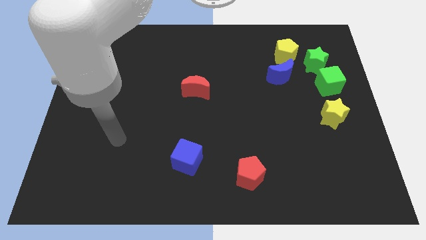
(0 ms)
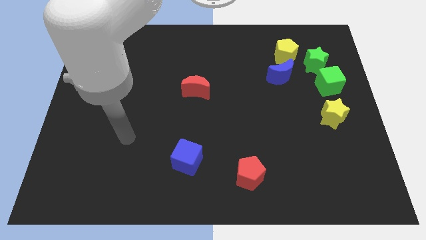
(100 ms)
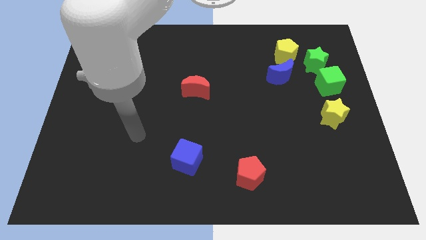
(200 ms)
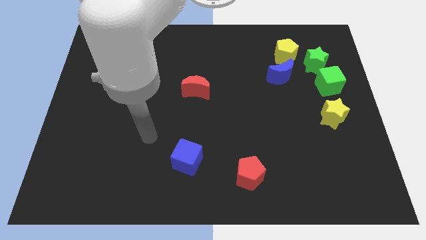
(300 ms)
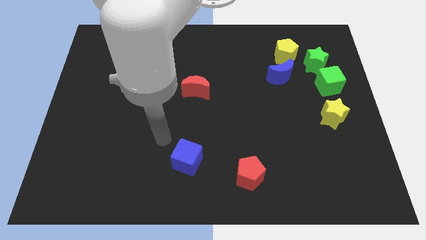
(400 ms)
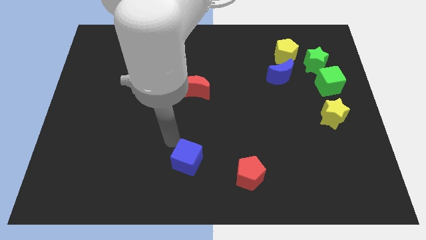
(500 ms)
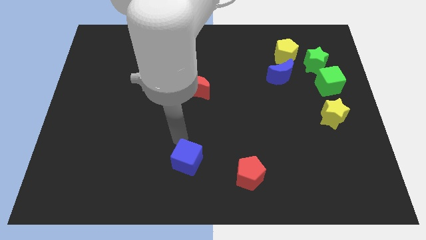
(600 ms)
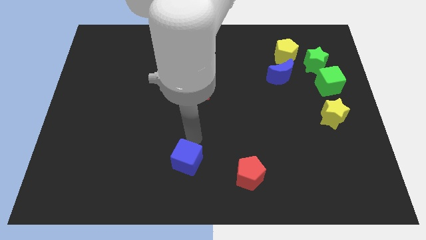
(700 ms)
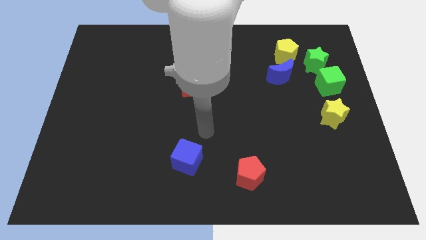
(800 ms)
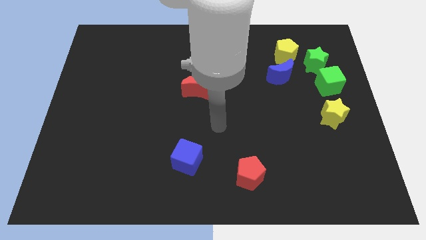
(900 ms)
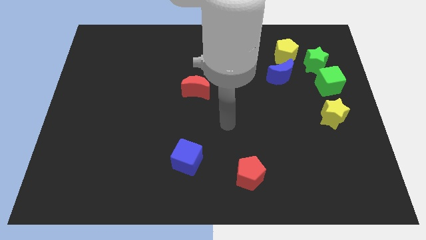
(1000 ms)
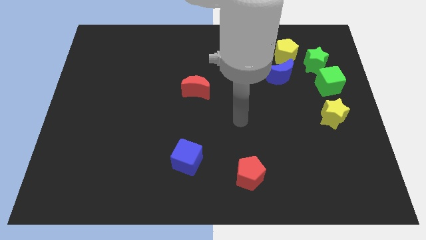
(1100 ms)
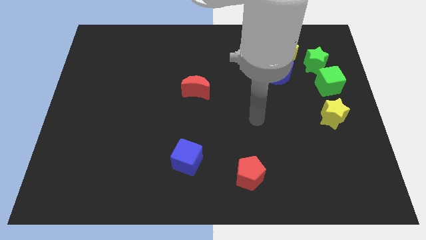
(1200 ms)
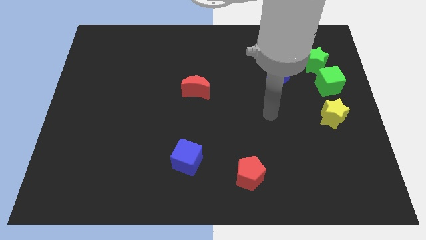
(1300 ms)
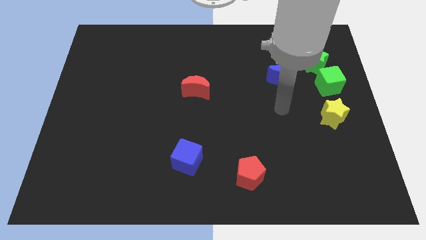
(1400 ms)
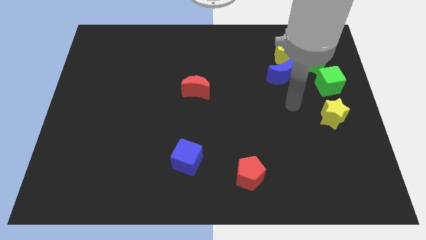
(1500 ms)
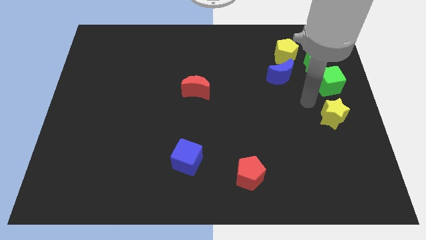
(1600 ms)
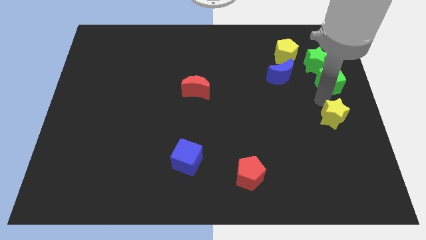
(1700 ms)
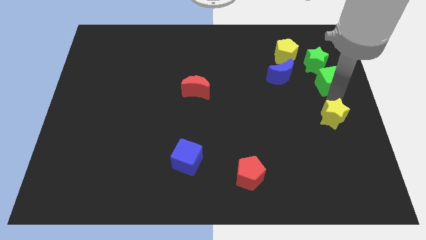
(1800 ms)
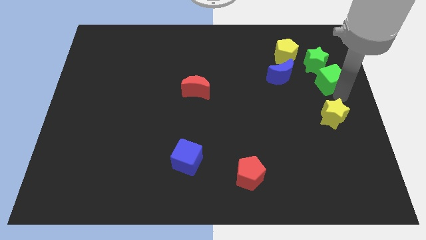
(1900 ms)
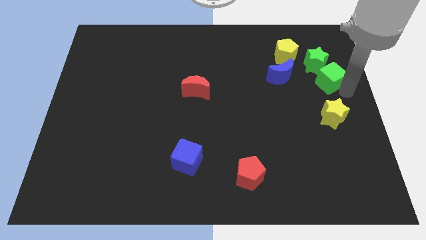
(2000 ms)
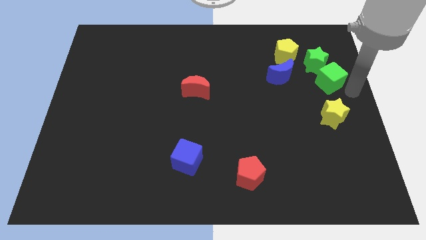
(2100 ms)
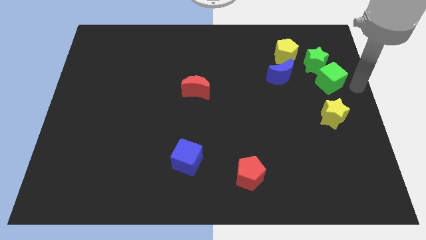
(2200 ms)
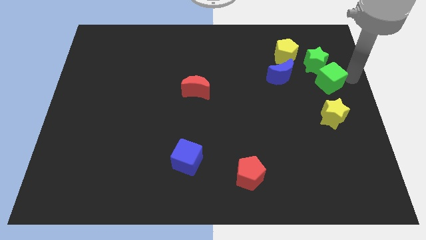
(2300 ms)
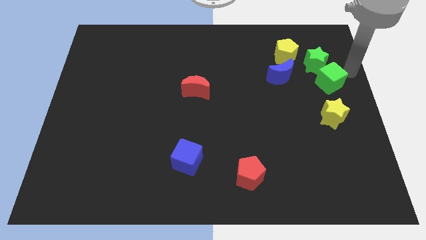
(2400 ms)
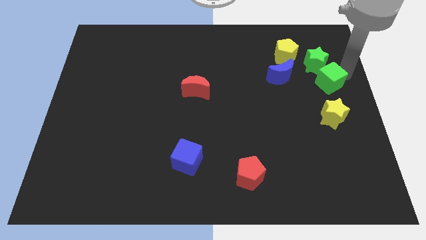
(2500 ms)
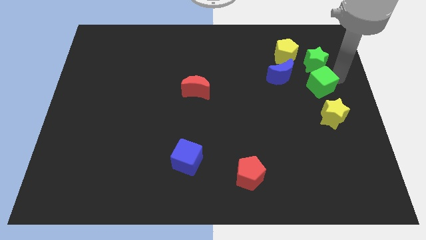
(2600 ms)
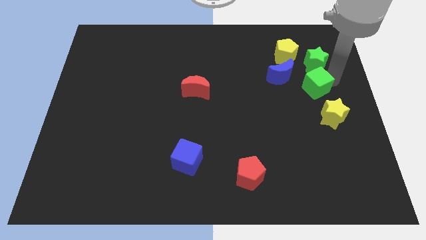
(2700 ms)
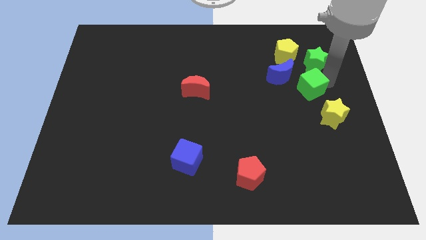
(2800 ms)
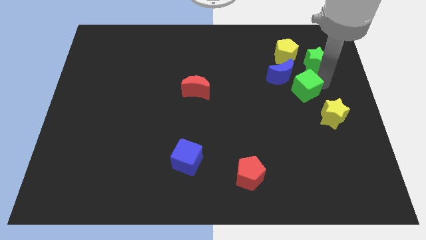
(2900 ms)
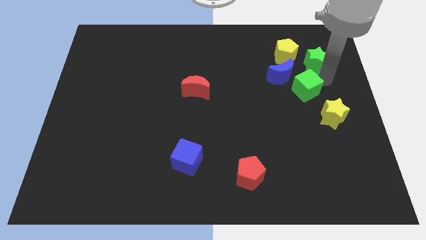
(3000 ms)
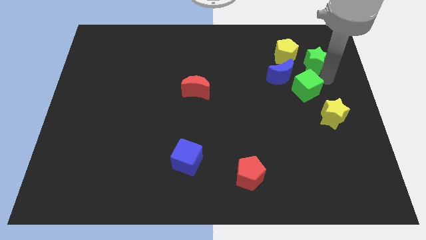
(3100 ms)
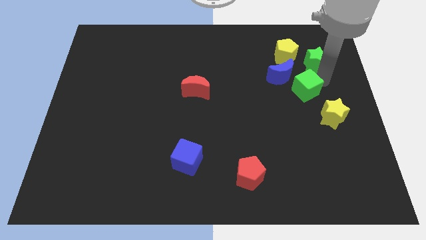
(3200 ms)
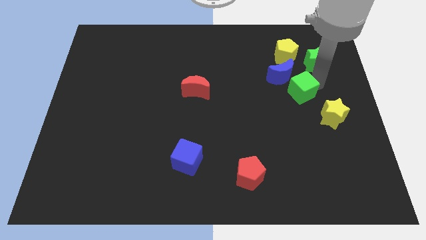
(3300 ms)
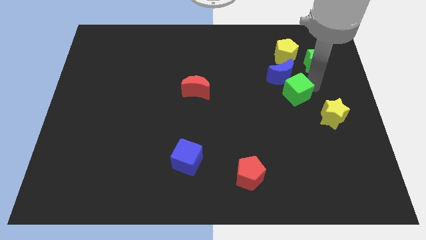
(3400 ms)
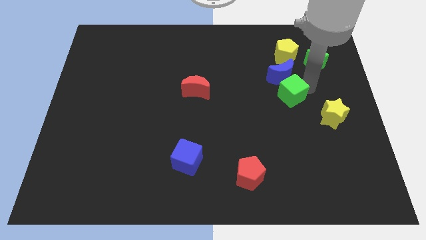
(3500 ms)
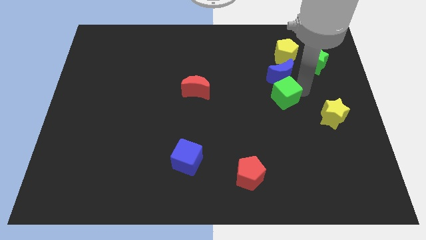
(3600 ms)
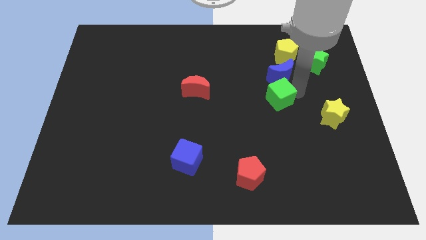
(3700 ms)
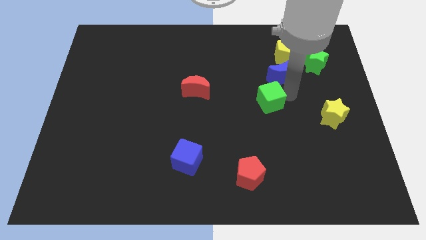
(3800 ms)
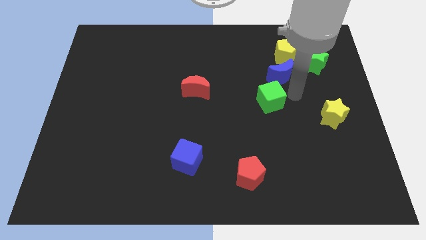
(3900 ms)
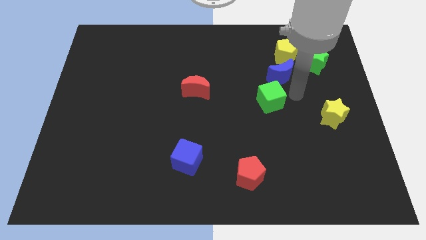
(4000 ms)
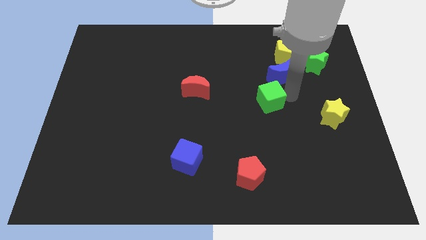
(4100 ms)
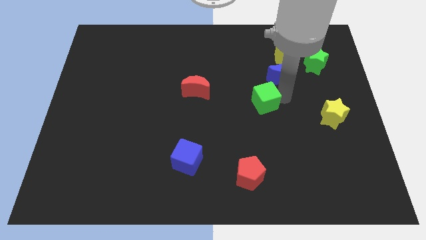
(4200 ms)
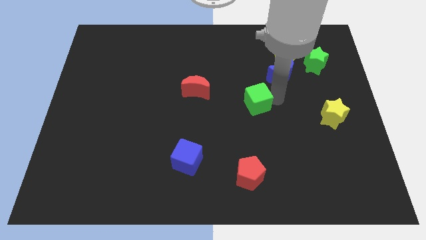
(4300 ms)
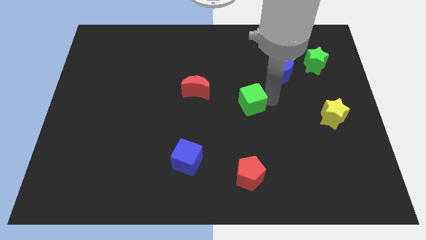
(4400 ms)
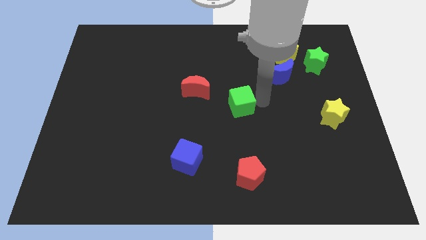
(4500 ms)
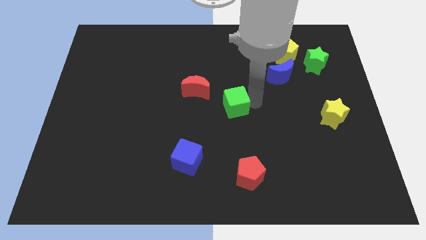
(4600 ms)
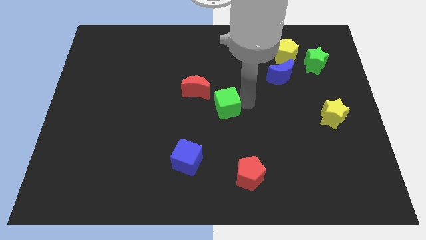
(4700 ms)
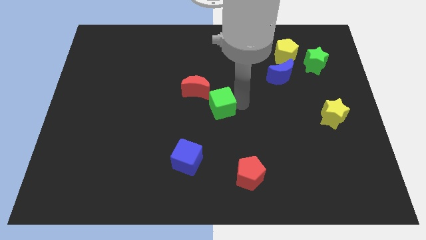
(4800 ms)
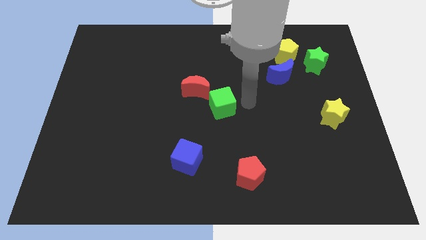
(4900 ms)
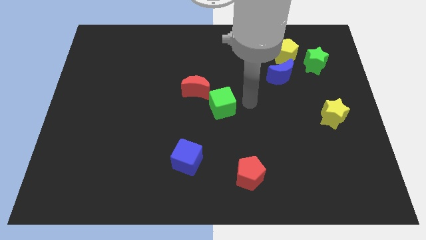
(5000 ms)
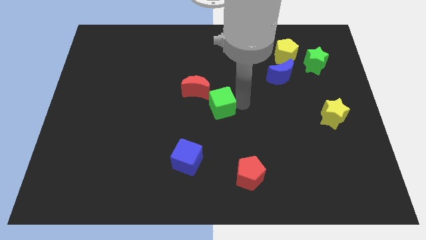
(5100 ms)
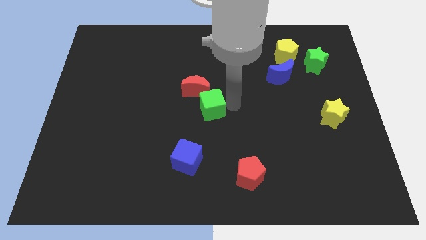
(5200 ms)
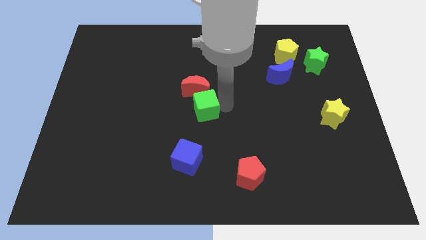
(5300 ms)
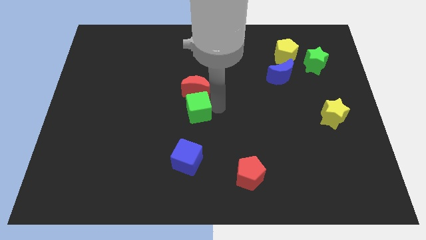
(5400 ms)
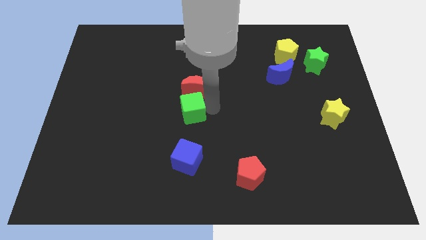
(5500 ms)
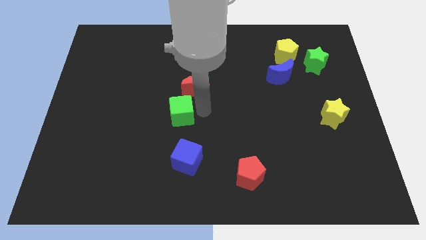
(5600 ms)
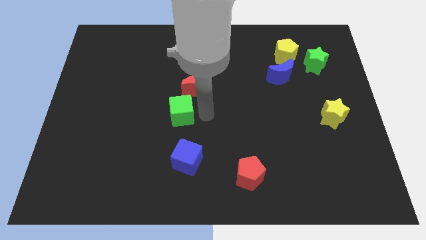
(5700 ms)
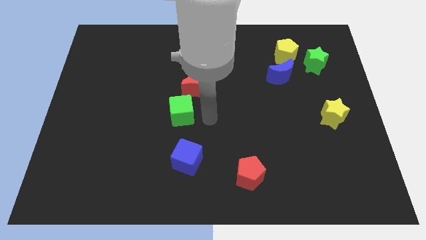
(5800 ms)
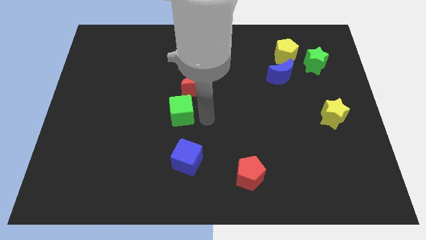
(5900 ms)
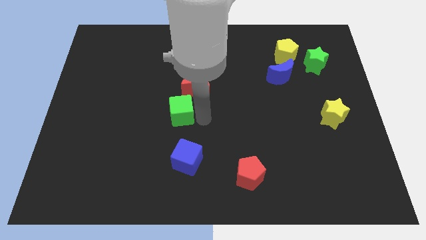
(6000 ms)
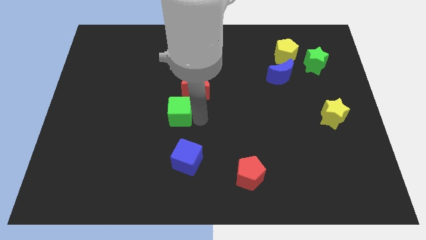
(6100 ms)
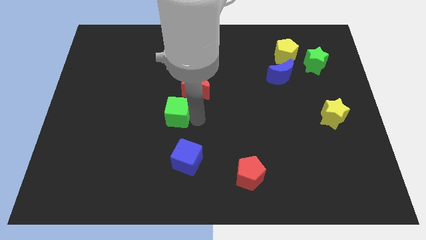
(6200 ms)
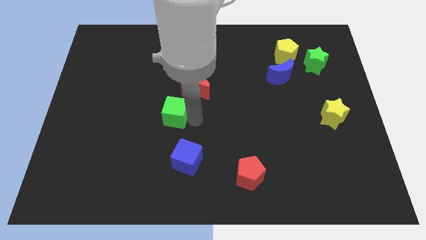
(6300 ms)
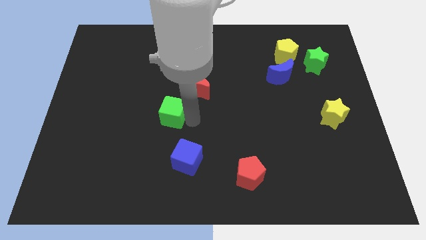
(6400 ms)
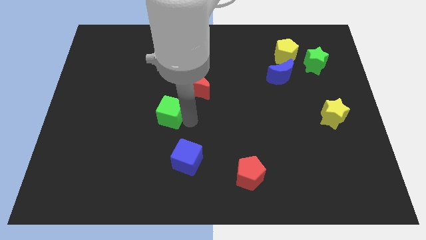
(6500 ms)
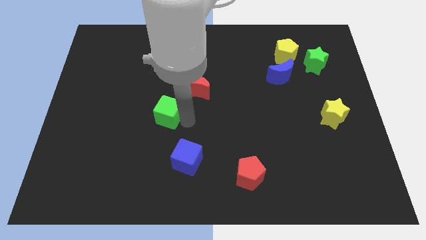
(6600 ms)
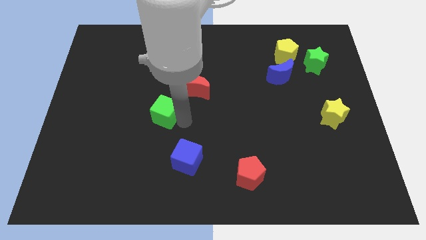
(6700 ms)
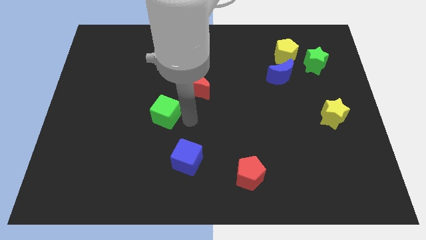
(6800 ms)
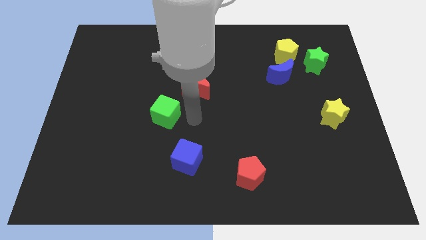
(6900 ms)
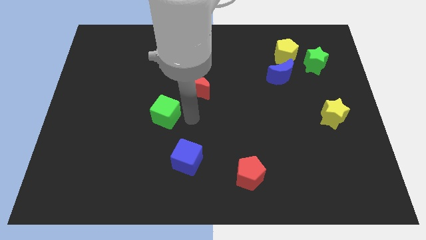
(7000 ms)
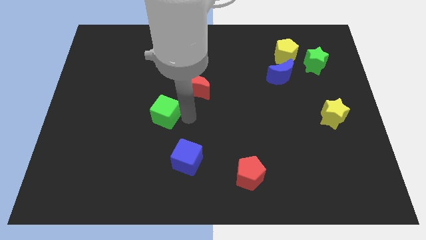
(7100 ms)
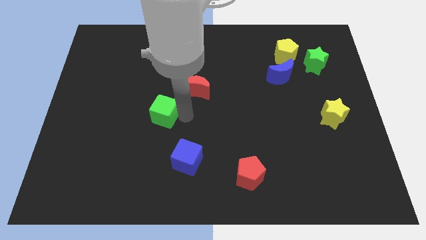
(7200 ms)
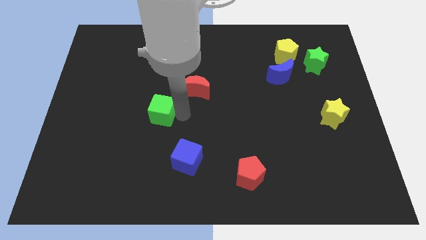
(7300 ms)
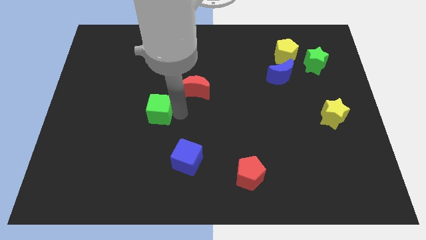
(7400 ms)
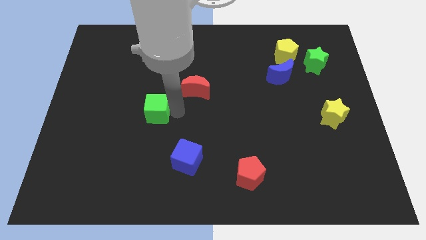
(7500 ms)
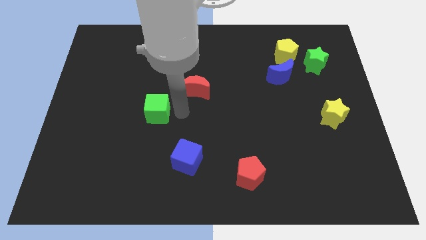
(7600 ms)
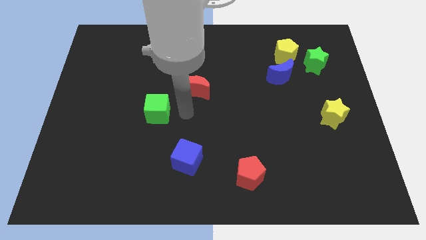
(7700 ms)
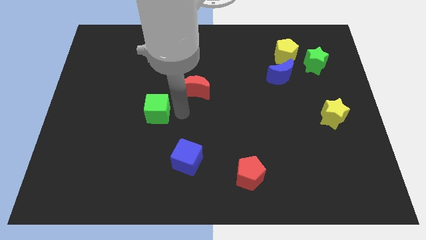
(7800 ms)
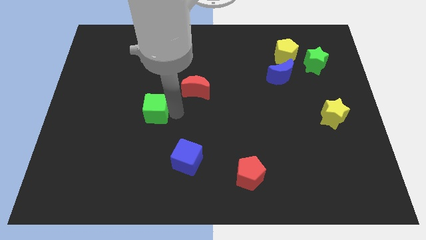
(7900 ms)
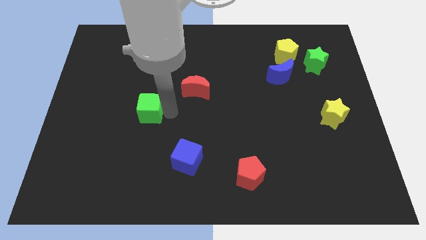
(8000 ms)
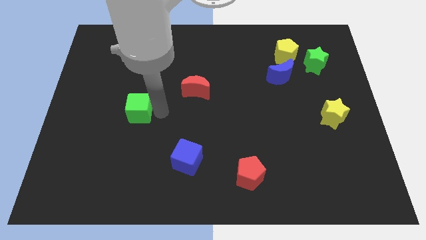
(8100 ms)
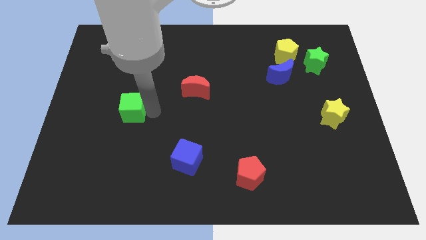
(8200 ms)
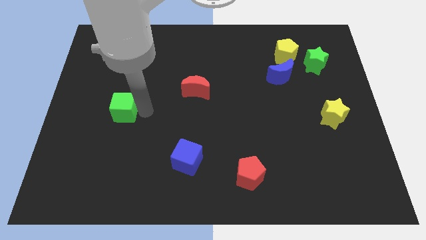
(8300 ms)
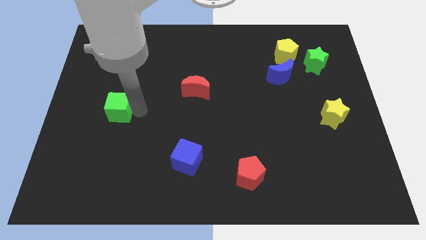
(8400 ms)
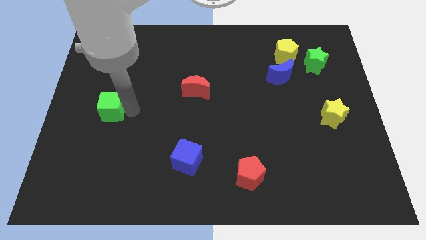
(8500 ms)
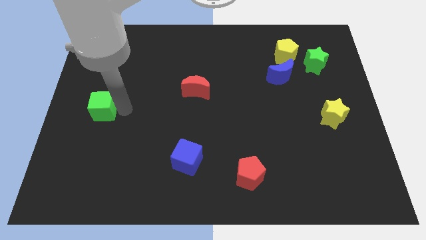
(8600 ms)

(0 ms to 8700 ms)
slide the green cube to the center left
